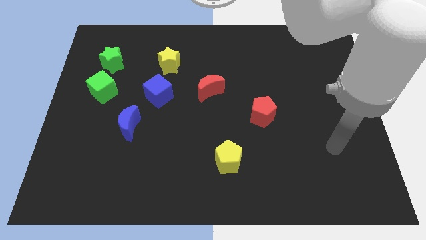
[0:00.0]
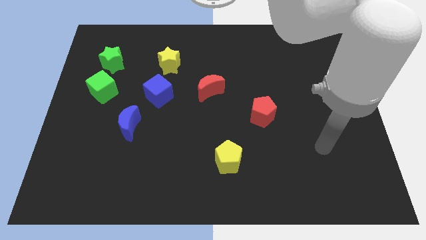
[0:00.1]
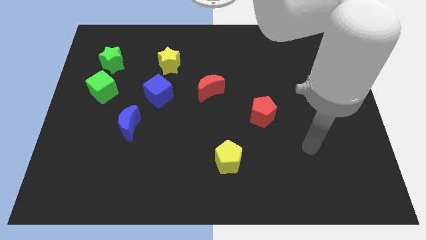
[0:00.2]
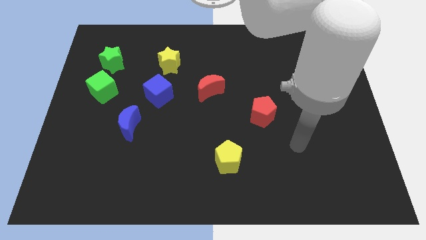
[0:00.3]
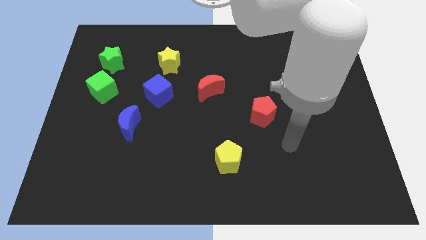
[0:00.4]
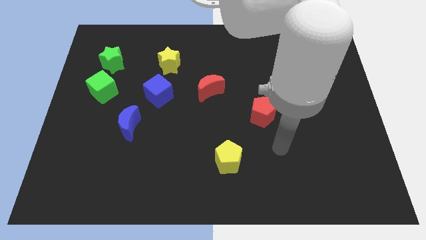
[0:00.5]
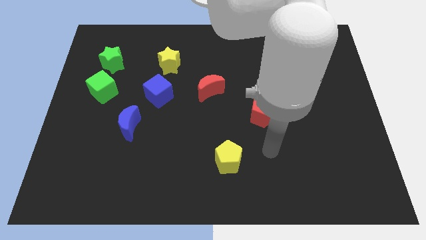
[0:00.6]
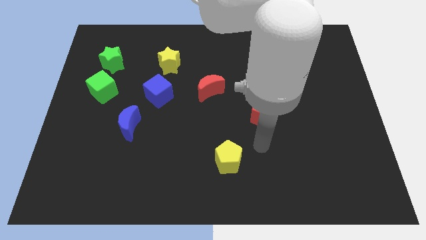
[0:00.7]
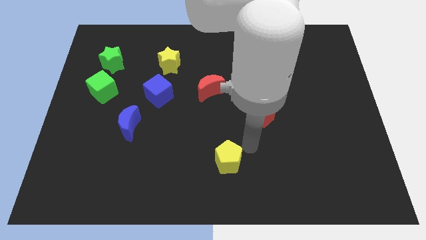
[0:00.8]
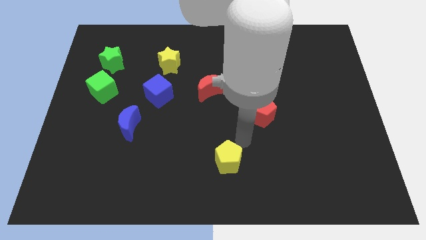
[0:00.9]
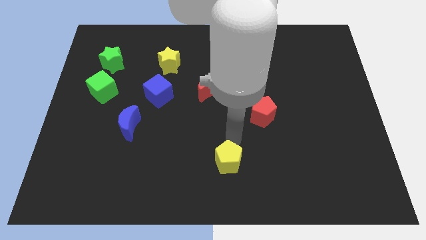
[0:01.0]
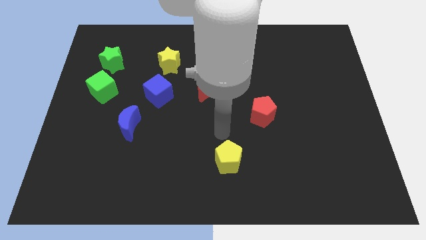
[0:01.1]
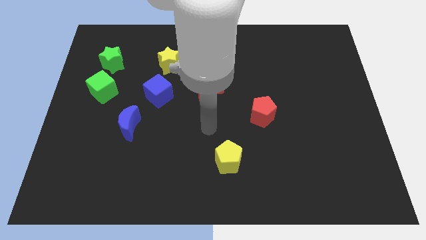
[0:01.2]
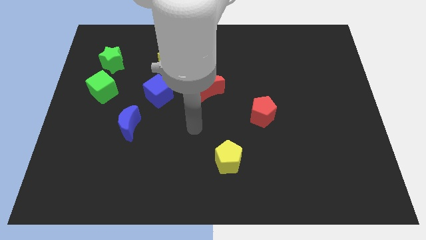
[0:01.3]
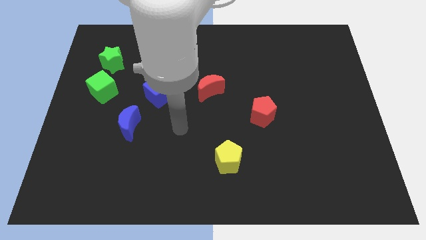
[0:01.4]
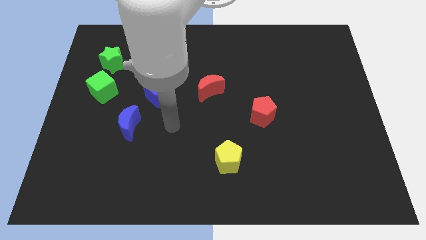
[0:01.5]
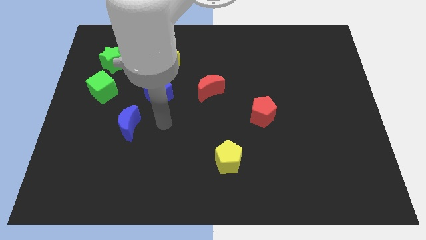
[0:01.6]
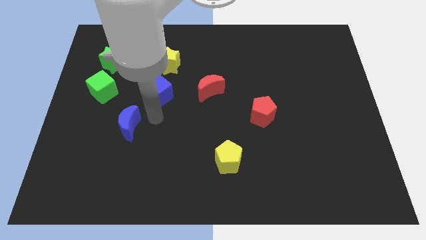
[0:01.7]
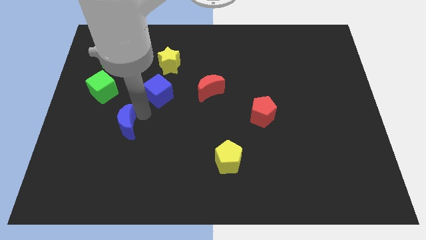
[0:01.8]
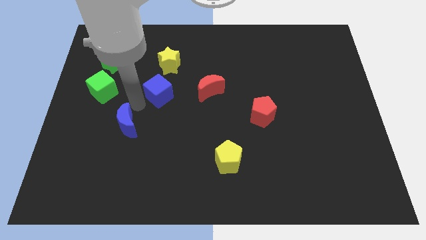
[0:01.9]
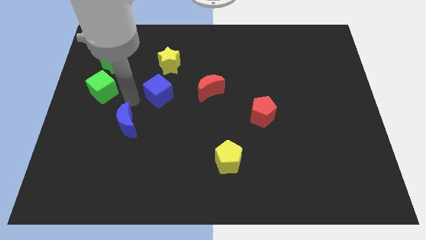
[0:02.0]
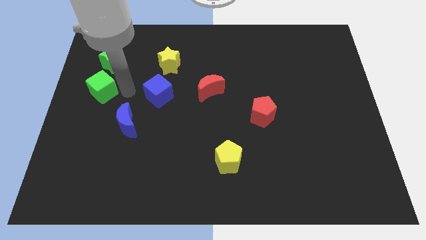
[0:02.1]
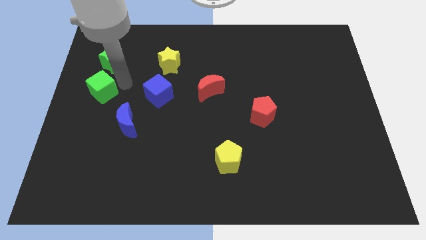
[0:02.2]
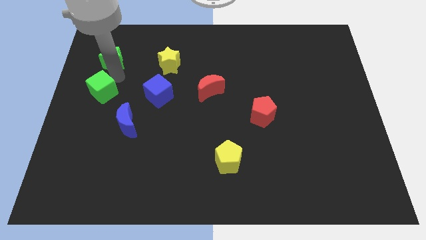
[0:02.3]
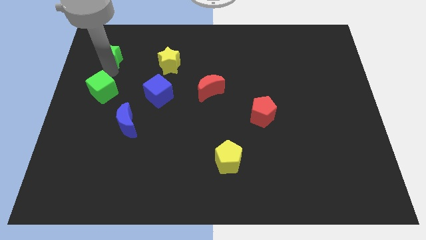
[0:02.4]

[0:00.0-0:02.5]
move the green cube away from the green star

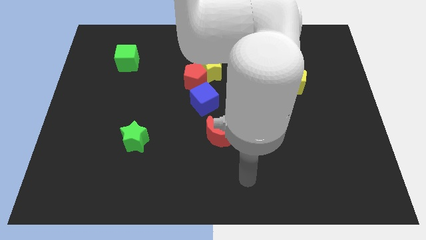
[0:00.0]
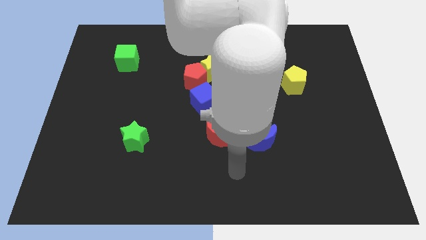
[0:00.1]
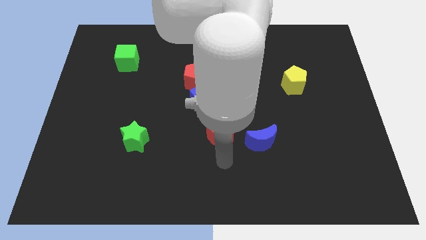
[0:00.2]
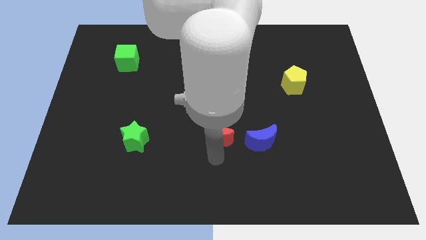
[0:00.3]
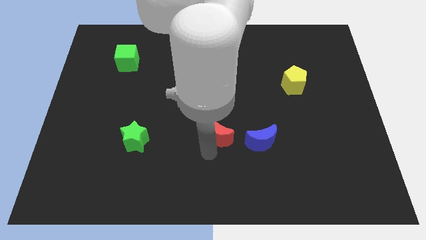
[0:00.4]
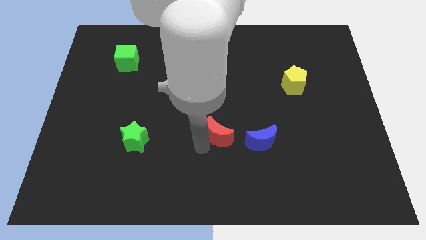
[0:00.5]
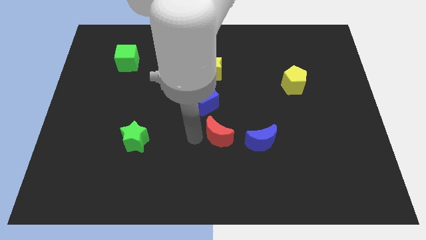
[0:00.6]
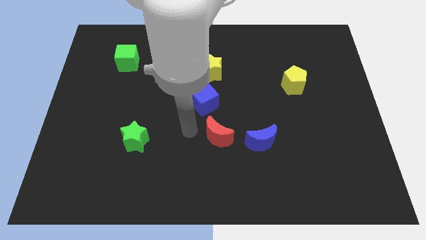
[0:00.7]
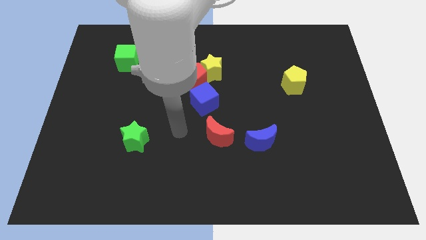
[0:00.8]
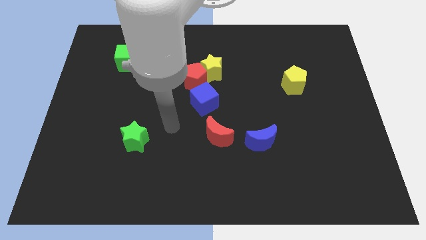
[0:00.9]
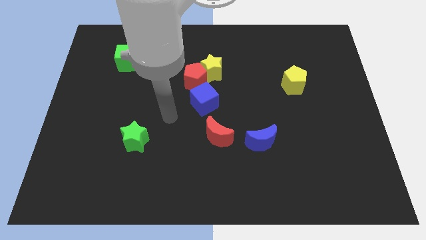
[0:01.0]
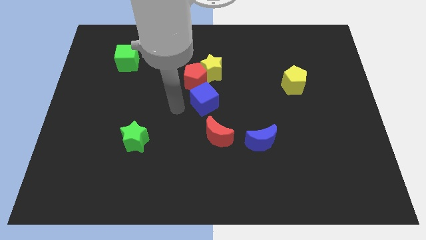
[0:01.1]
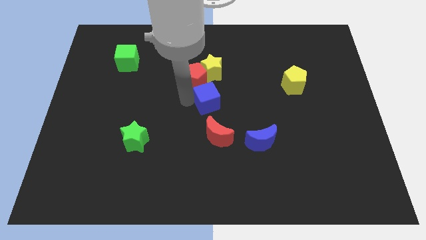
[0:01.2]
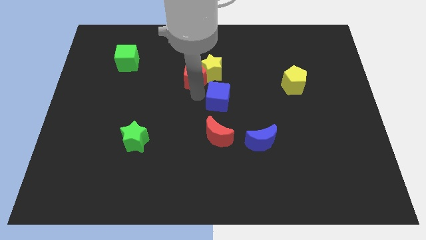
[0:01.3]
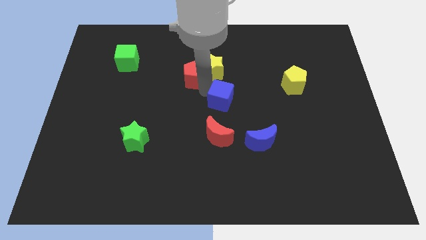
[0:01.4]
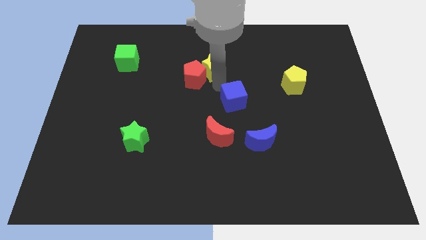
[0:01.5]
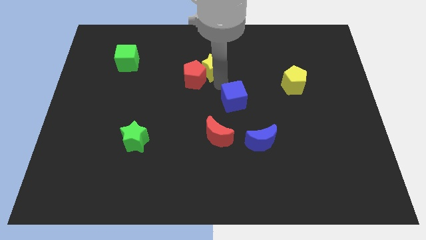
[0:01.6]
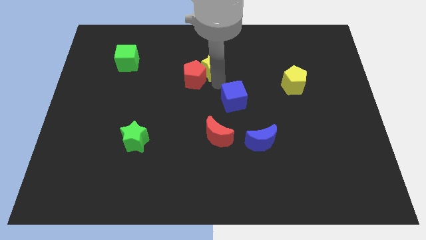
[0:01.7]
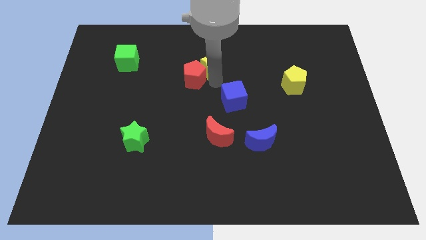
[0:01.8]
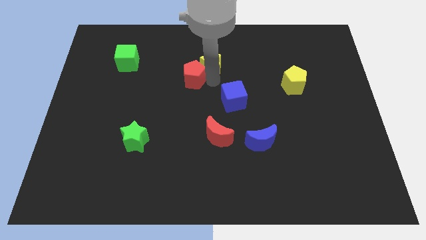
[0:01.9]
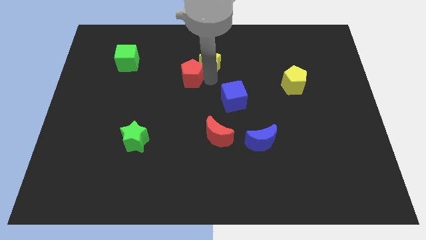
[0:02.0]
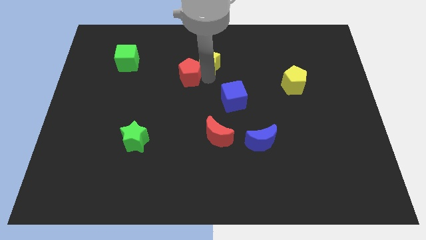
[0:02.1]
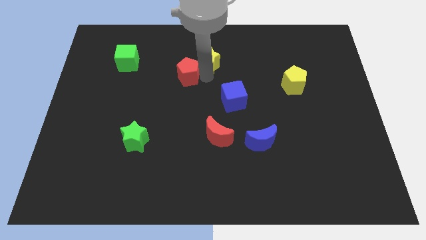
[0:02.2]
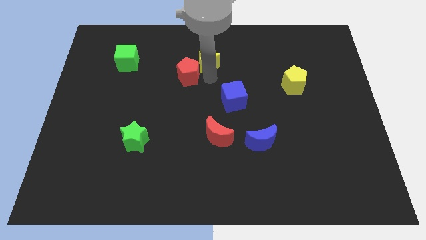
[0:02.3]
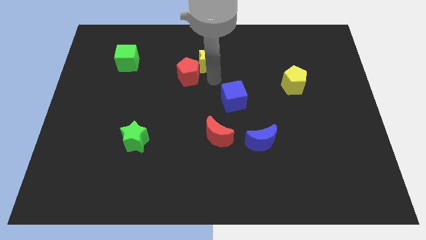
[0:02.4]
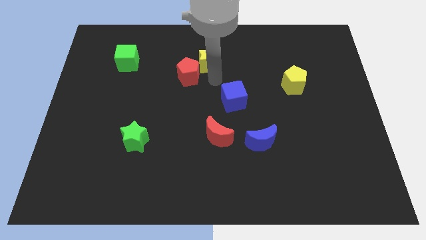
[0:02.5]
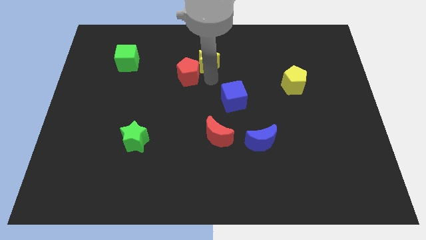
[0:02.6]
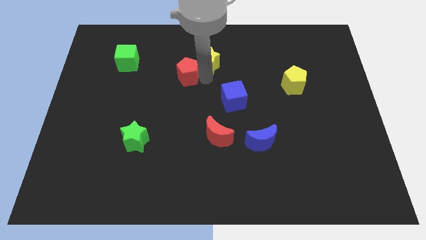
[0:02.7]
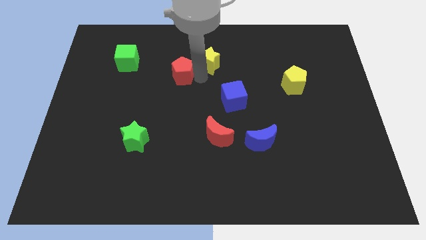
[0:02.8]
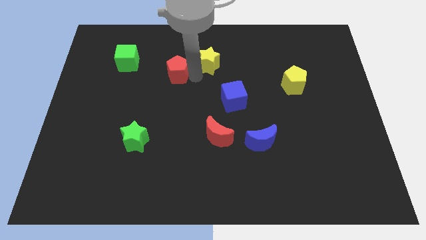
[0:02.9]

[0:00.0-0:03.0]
separate the red pentagon from the yellow star and blue cube

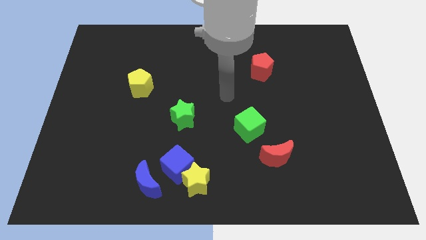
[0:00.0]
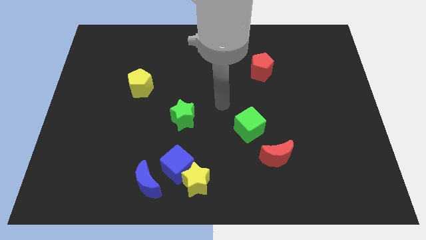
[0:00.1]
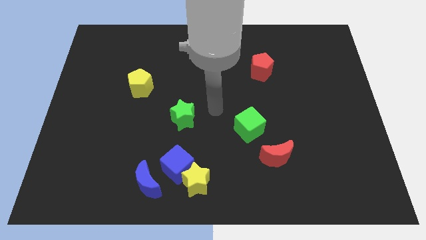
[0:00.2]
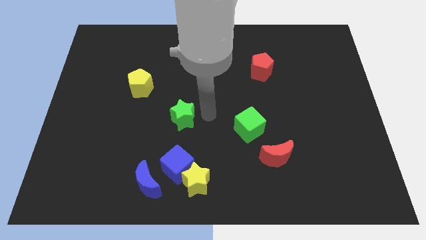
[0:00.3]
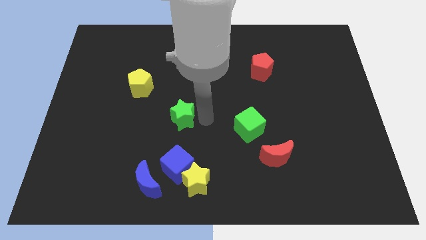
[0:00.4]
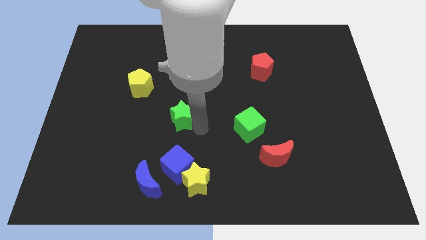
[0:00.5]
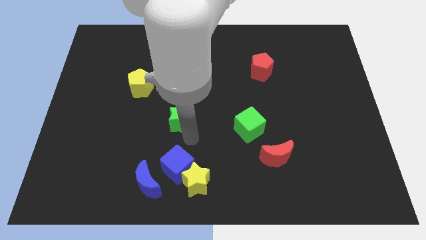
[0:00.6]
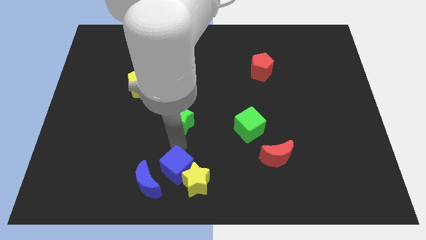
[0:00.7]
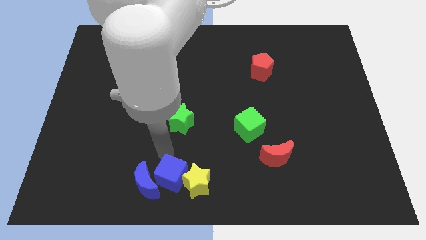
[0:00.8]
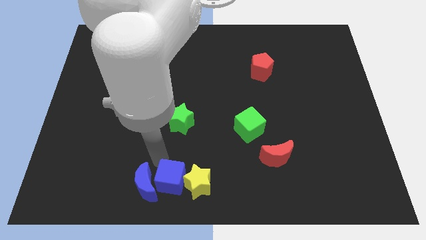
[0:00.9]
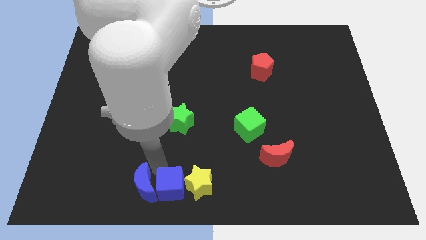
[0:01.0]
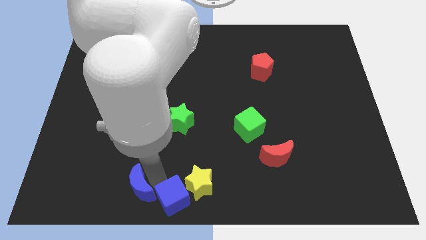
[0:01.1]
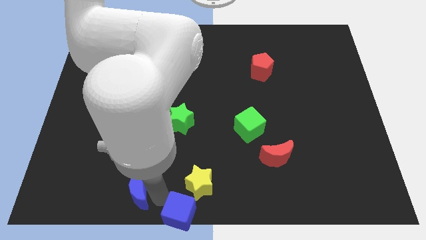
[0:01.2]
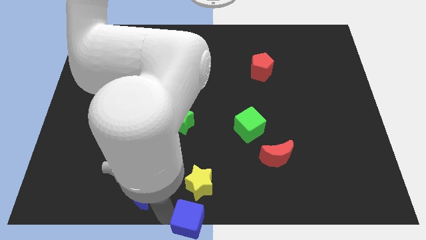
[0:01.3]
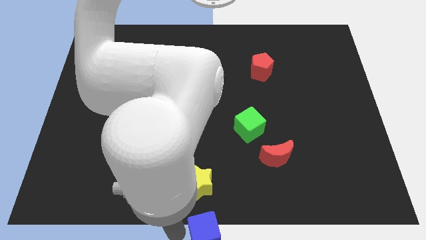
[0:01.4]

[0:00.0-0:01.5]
separate the blue cube from the yellow star and blue moon

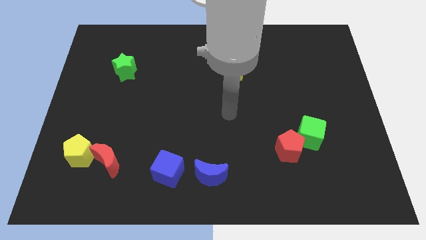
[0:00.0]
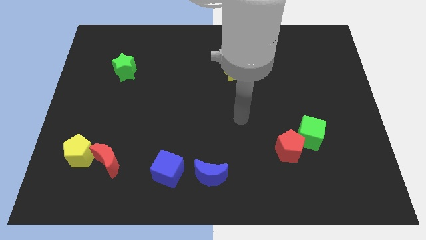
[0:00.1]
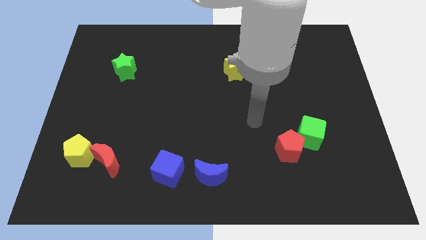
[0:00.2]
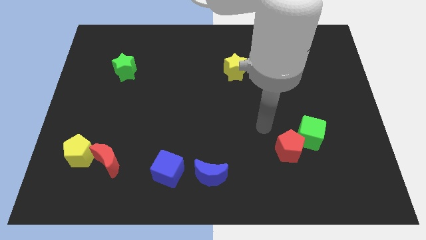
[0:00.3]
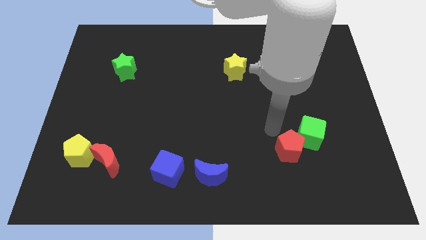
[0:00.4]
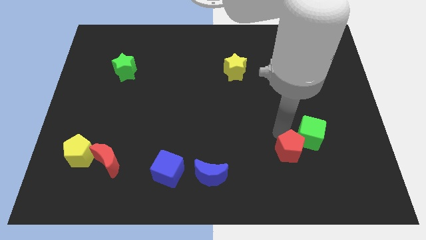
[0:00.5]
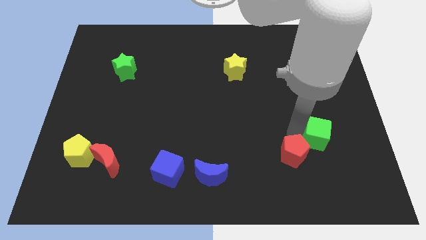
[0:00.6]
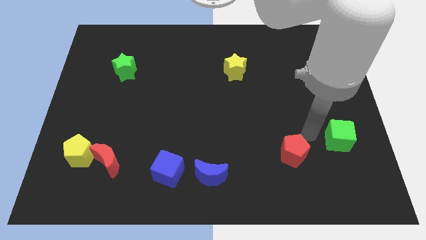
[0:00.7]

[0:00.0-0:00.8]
separate the red pentagon from the green cube

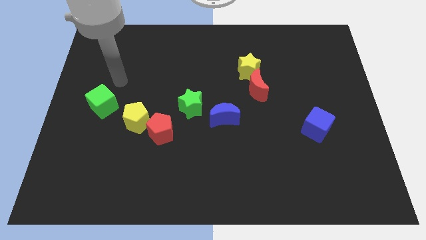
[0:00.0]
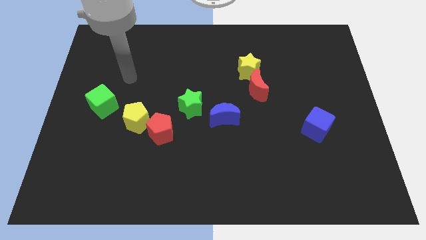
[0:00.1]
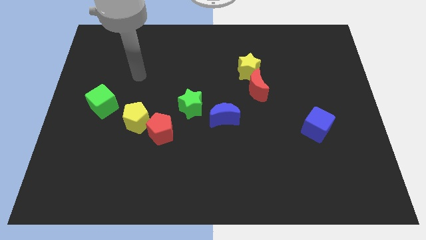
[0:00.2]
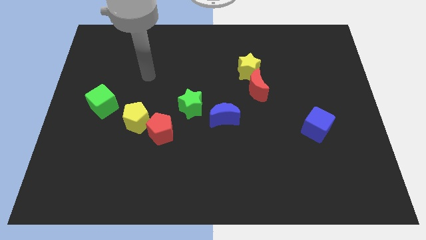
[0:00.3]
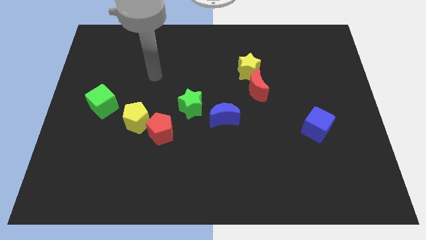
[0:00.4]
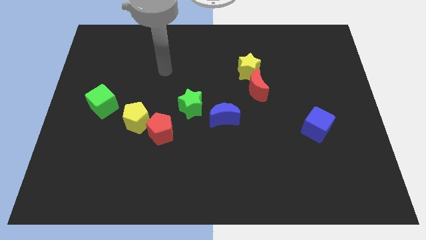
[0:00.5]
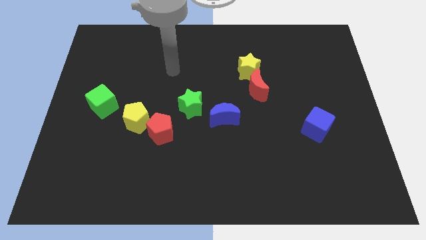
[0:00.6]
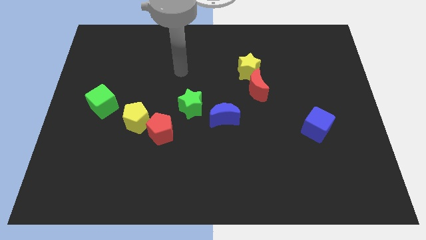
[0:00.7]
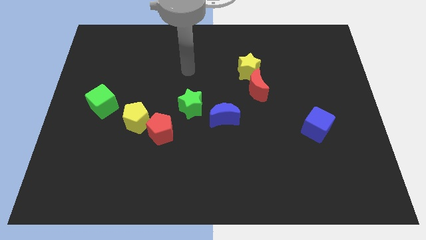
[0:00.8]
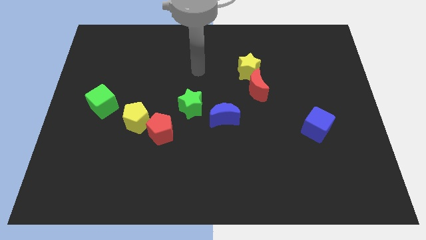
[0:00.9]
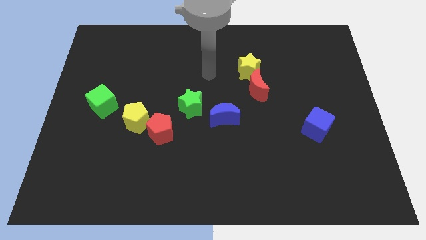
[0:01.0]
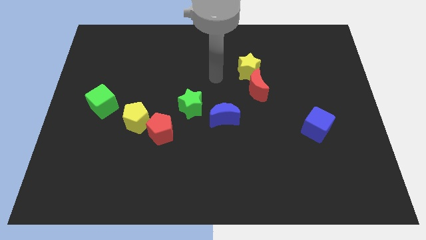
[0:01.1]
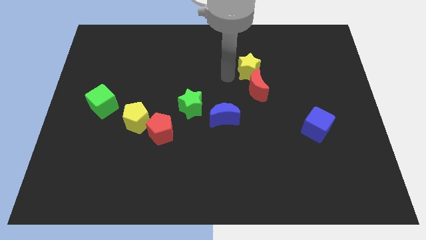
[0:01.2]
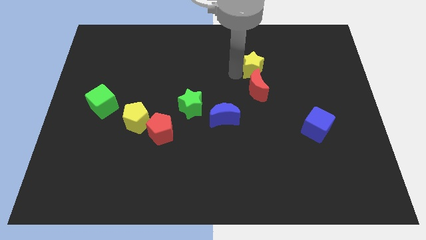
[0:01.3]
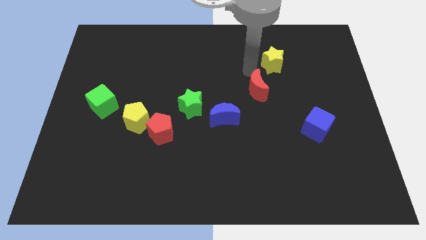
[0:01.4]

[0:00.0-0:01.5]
move the red moon away from the yellow star
